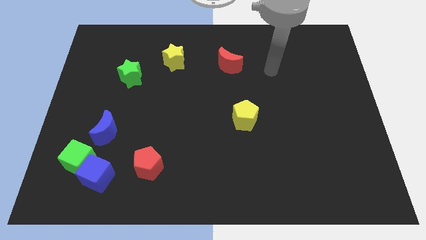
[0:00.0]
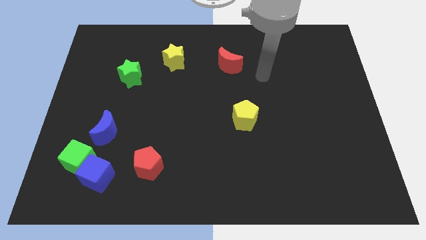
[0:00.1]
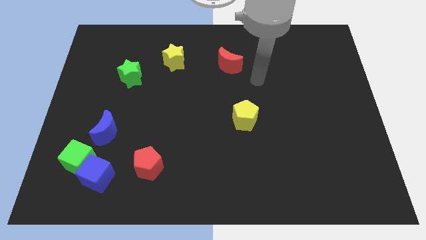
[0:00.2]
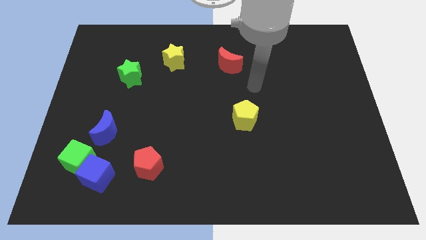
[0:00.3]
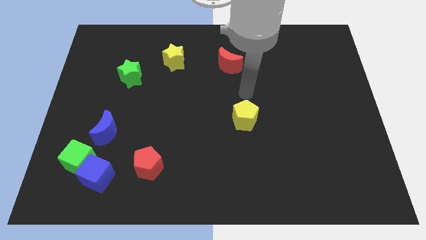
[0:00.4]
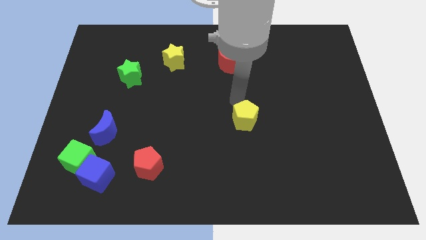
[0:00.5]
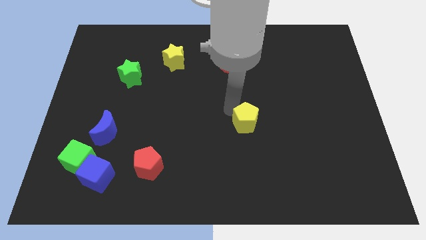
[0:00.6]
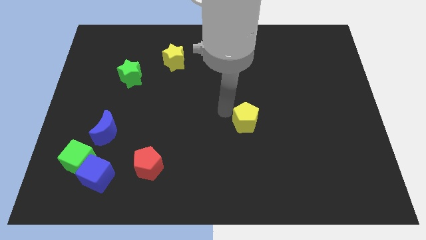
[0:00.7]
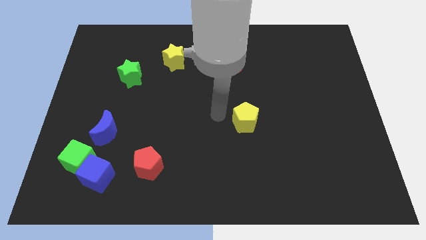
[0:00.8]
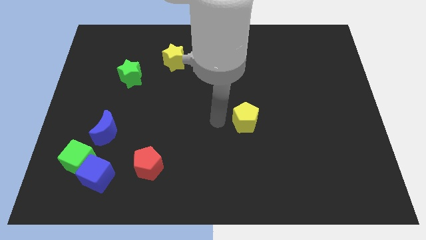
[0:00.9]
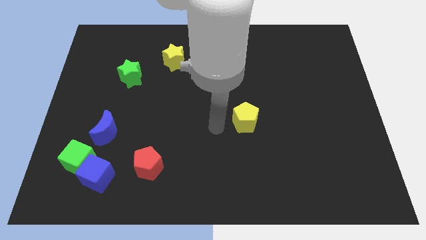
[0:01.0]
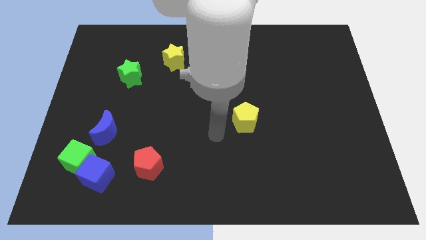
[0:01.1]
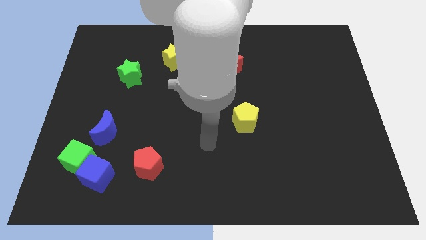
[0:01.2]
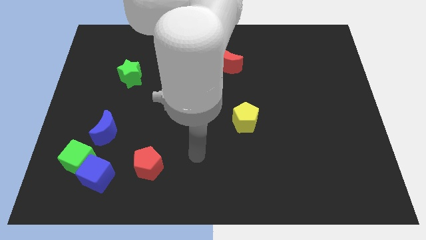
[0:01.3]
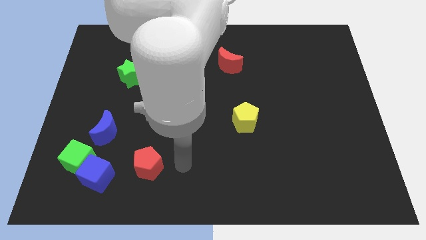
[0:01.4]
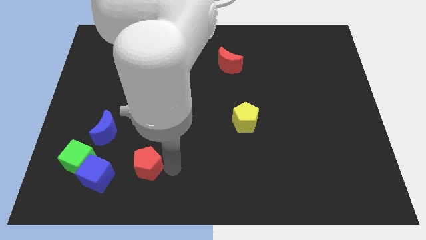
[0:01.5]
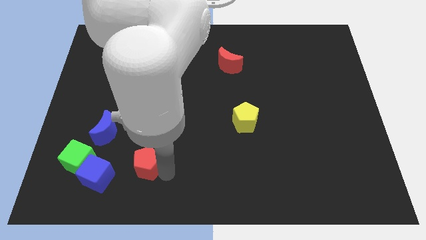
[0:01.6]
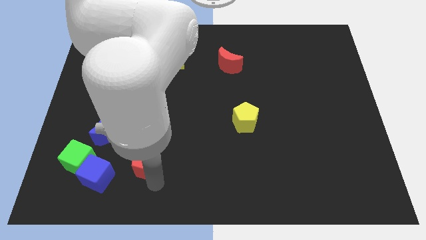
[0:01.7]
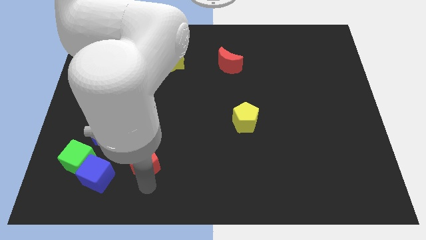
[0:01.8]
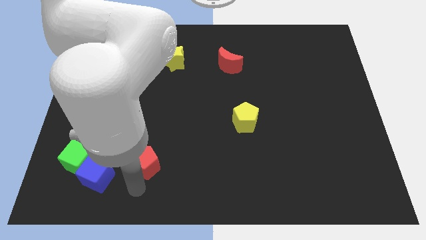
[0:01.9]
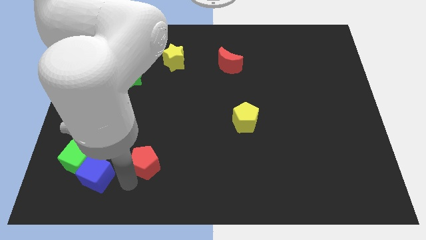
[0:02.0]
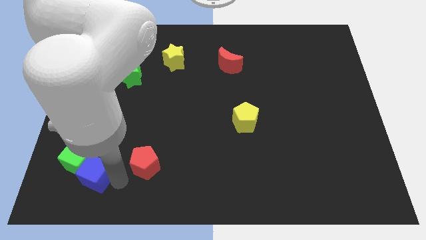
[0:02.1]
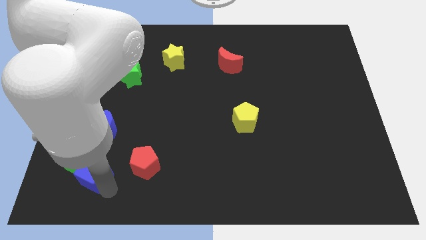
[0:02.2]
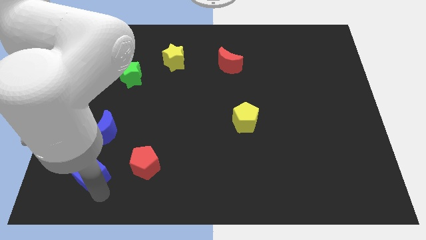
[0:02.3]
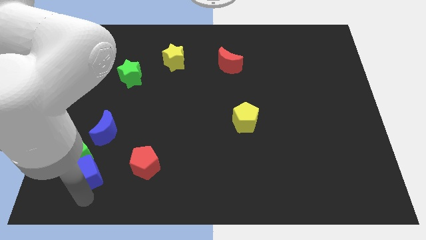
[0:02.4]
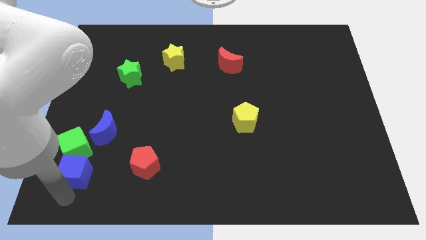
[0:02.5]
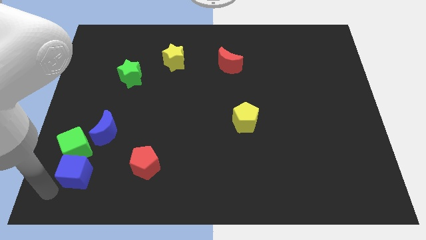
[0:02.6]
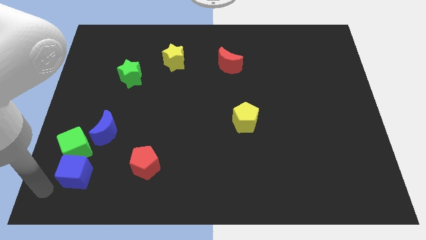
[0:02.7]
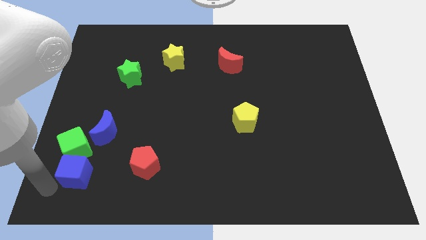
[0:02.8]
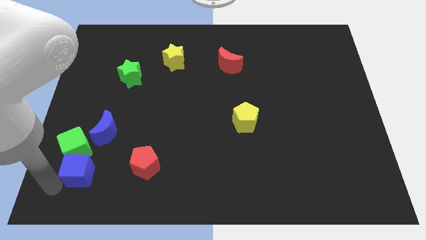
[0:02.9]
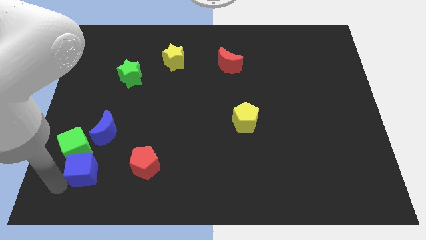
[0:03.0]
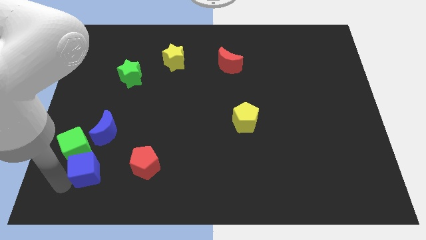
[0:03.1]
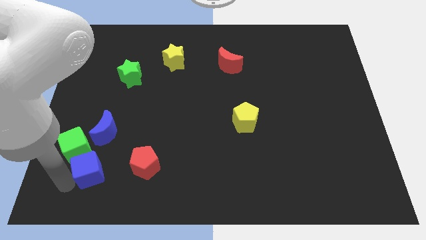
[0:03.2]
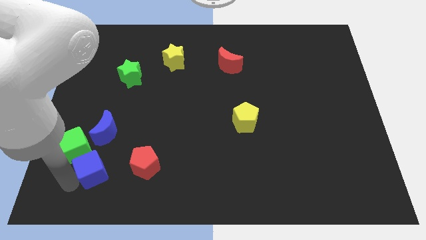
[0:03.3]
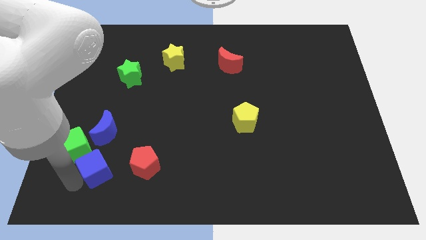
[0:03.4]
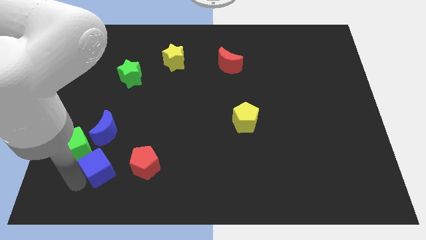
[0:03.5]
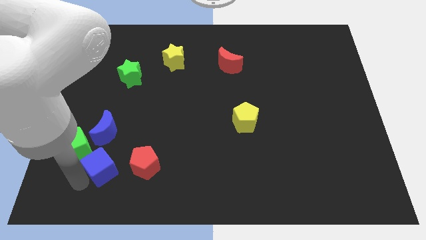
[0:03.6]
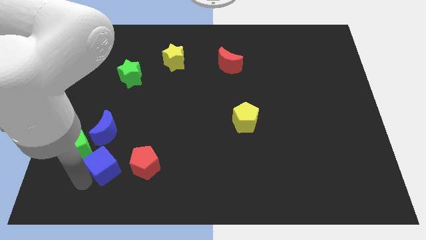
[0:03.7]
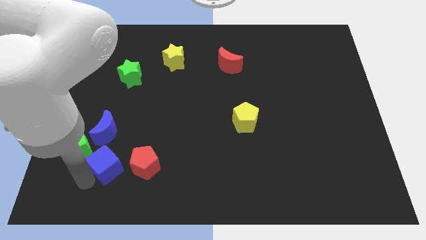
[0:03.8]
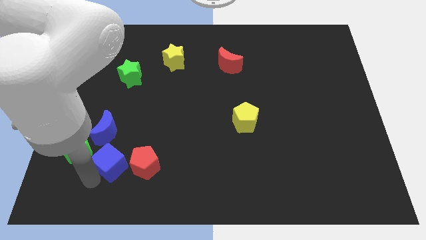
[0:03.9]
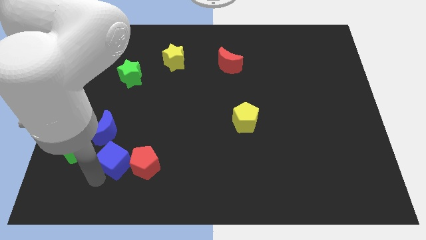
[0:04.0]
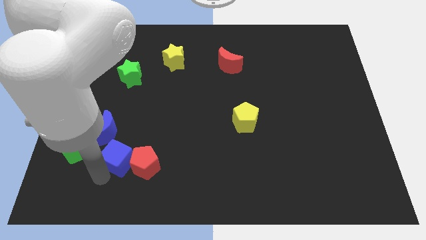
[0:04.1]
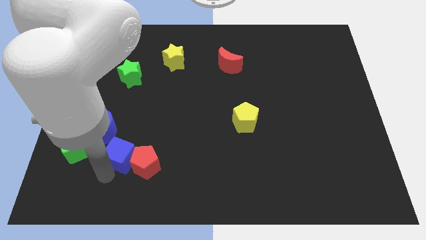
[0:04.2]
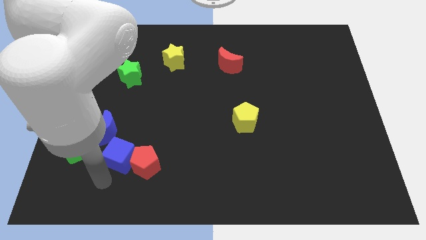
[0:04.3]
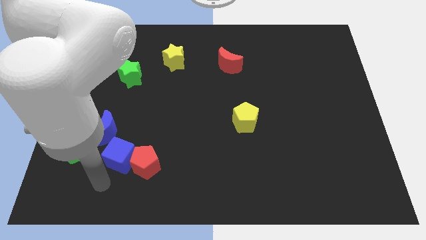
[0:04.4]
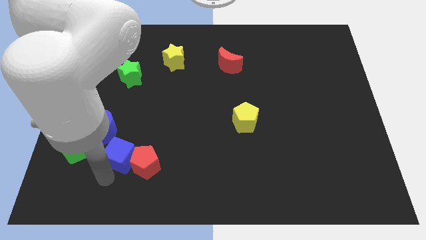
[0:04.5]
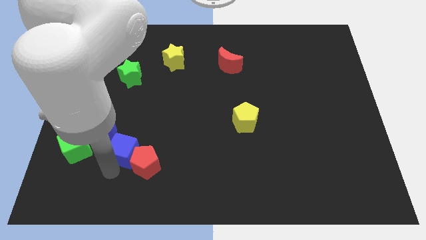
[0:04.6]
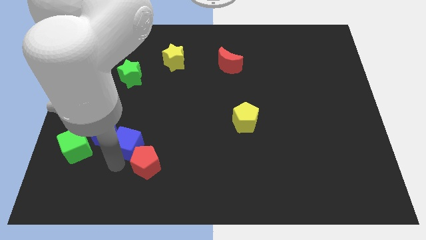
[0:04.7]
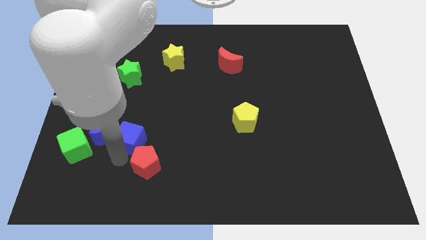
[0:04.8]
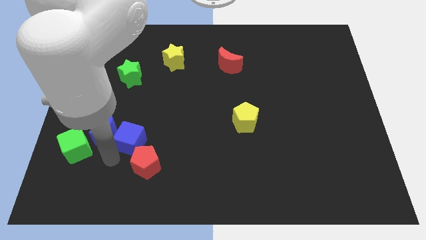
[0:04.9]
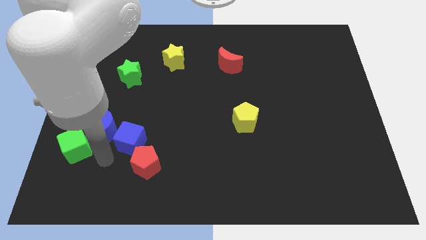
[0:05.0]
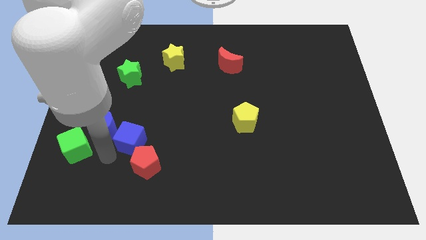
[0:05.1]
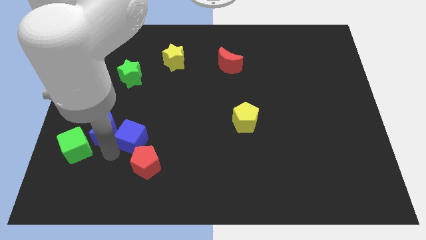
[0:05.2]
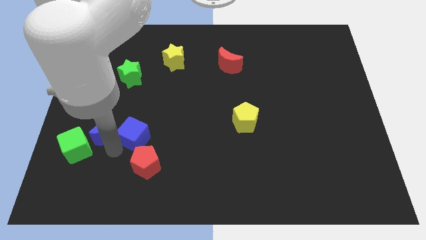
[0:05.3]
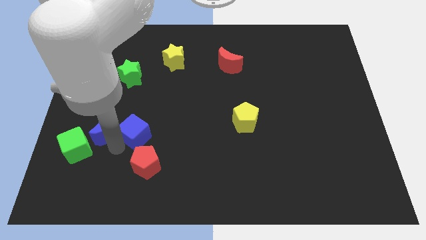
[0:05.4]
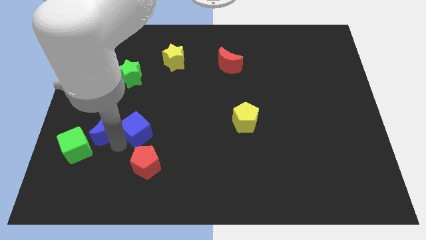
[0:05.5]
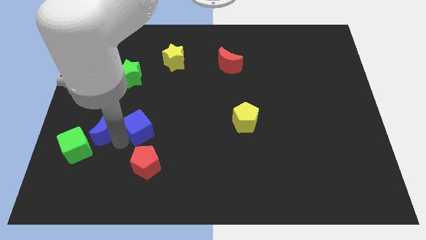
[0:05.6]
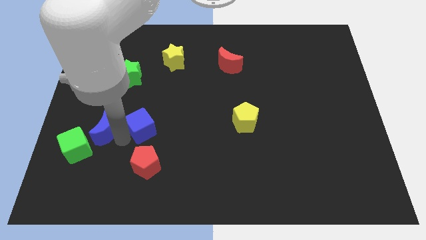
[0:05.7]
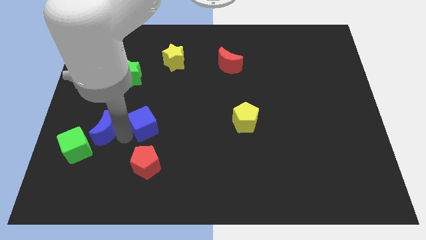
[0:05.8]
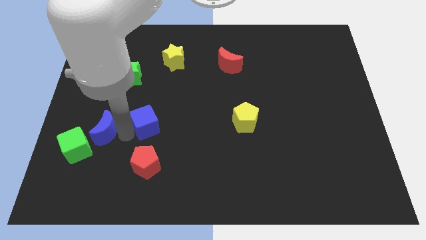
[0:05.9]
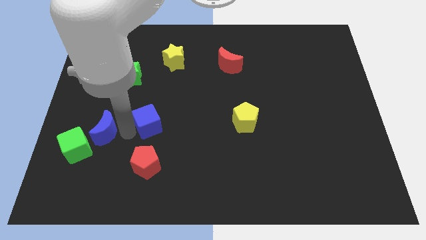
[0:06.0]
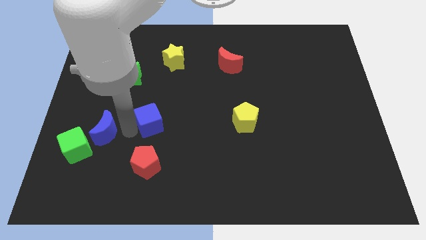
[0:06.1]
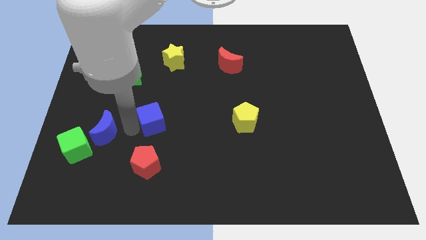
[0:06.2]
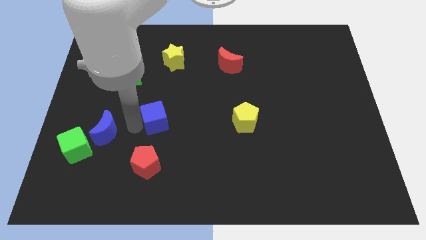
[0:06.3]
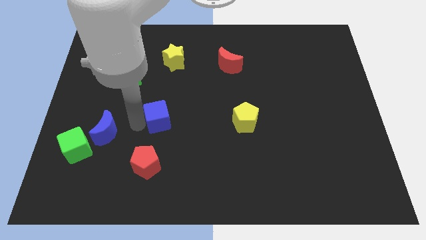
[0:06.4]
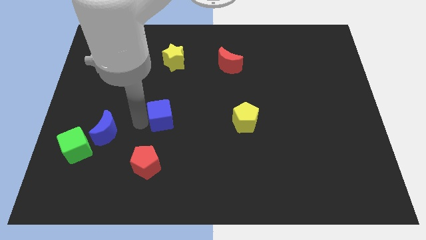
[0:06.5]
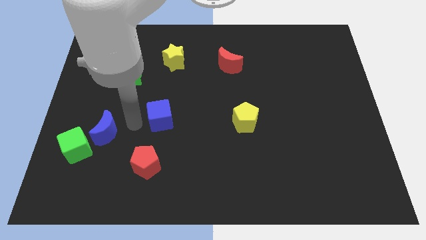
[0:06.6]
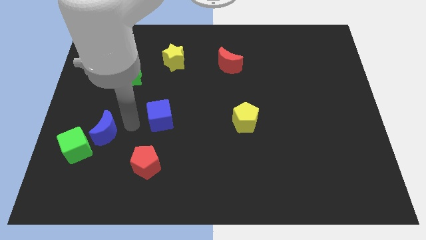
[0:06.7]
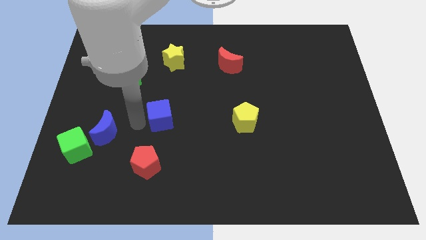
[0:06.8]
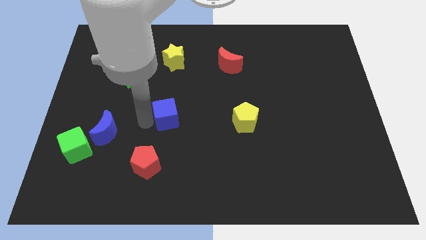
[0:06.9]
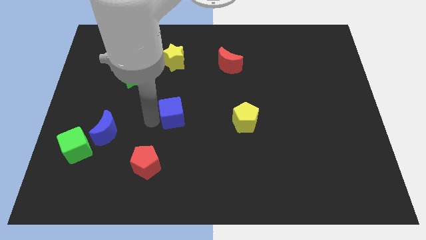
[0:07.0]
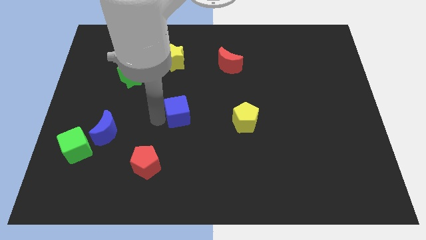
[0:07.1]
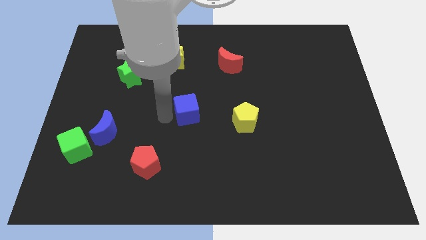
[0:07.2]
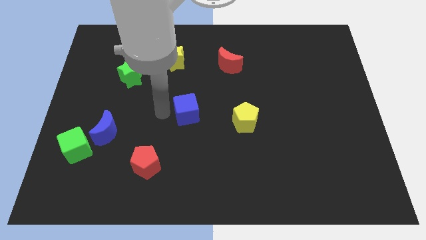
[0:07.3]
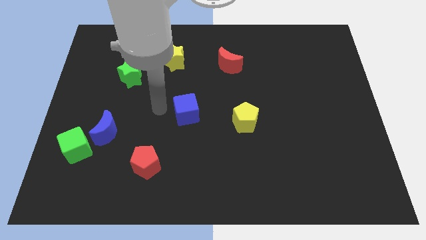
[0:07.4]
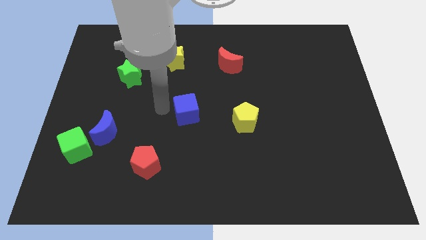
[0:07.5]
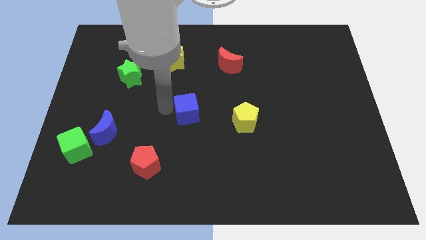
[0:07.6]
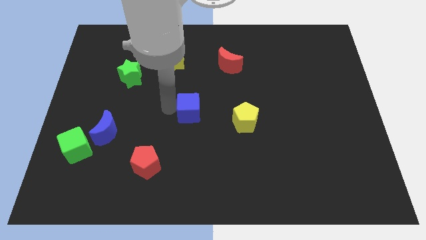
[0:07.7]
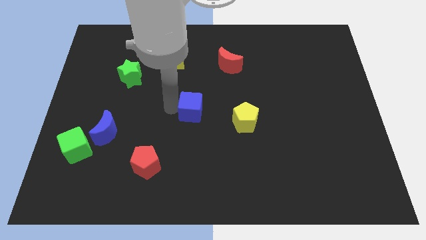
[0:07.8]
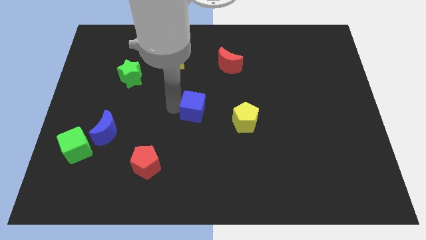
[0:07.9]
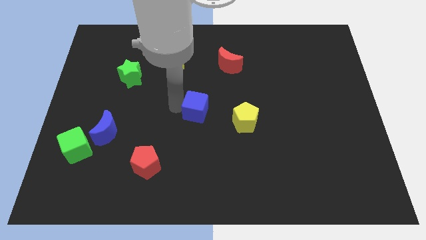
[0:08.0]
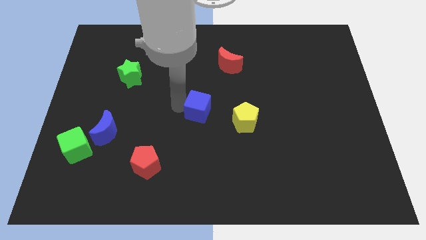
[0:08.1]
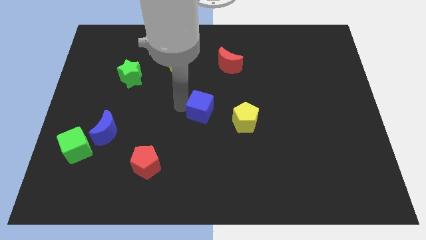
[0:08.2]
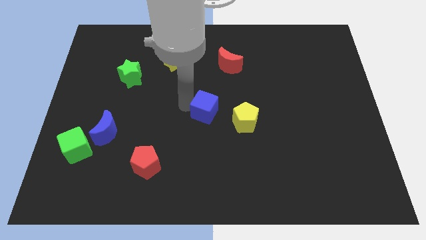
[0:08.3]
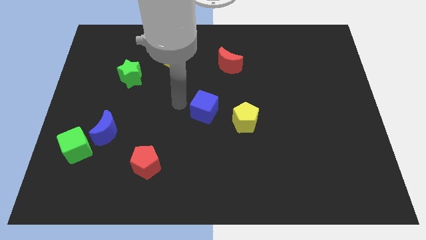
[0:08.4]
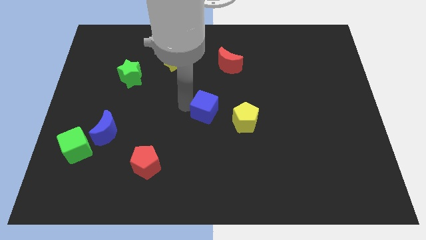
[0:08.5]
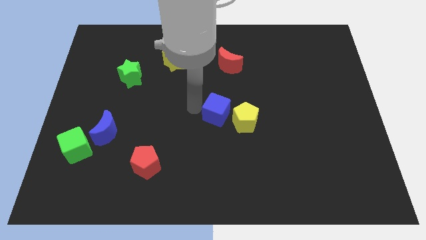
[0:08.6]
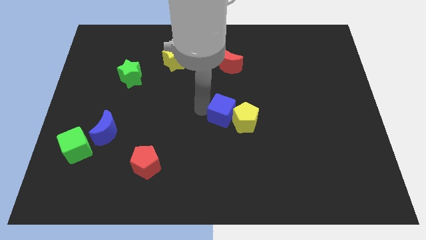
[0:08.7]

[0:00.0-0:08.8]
put the blue cube towards the yellow pentagon
